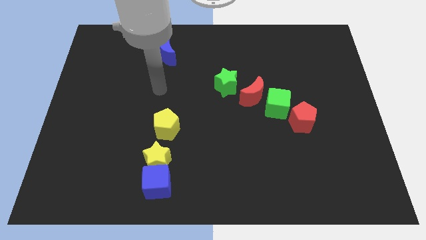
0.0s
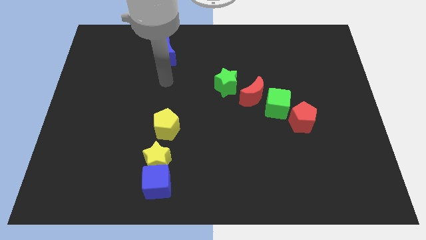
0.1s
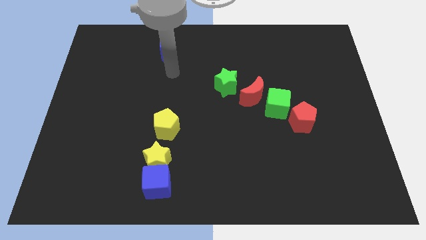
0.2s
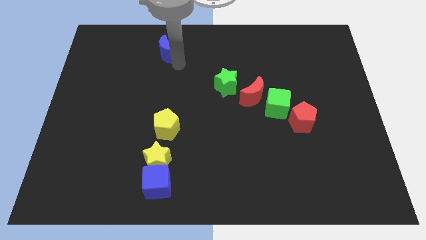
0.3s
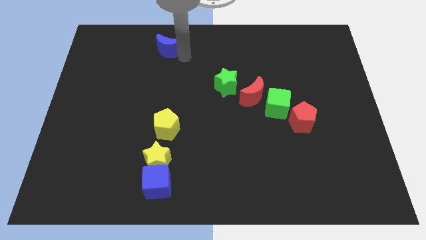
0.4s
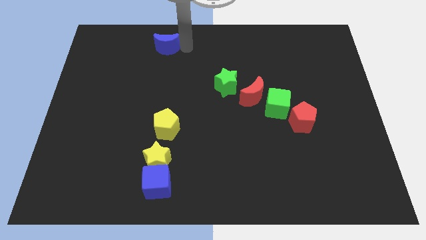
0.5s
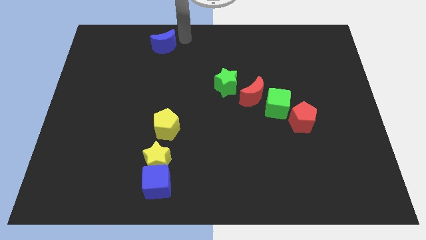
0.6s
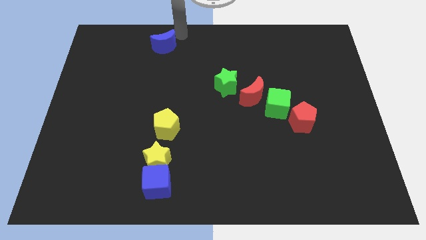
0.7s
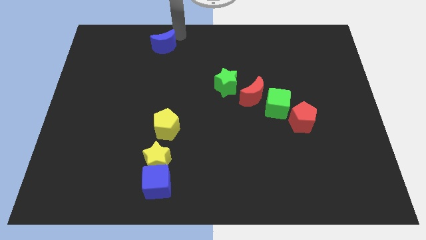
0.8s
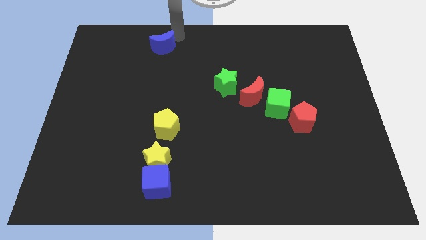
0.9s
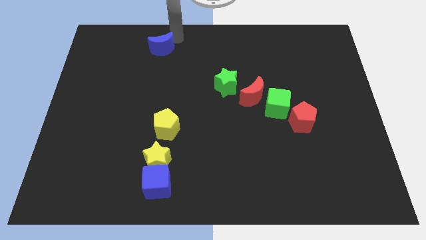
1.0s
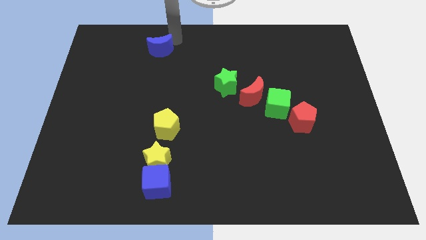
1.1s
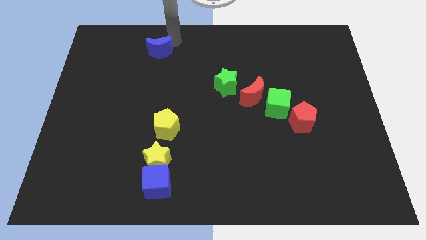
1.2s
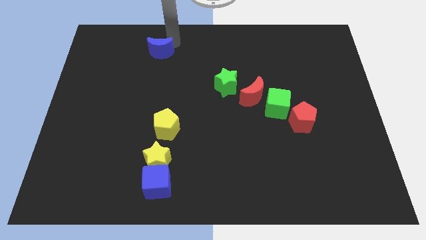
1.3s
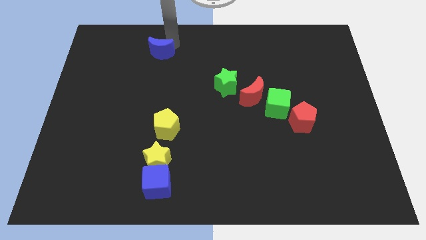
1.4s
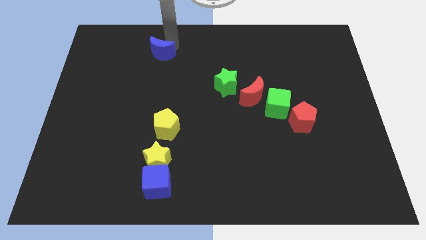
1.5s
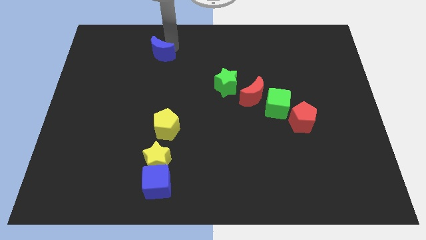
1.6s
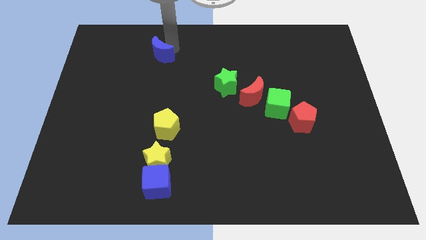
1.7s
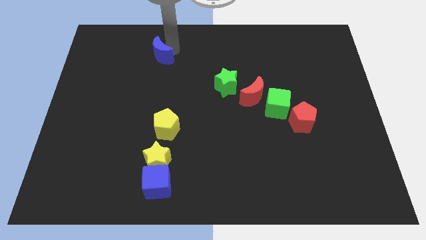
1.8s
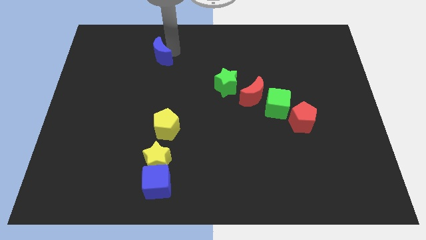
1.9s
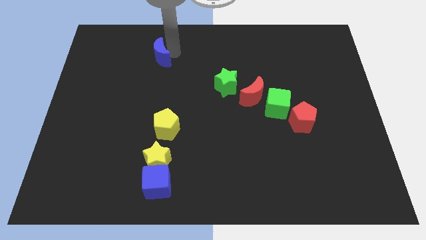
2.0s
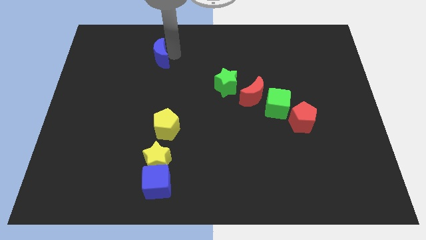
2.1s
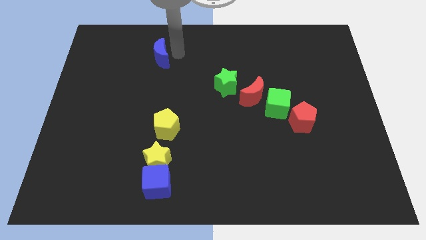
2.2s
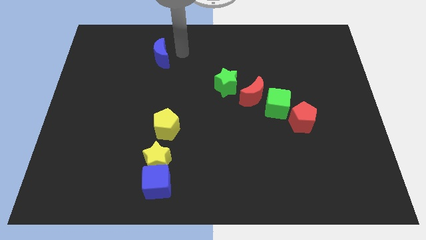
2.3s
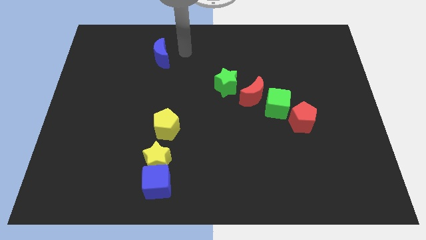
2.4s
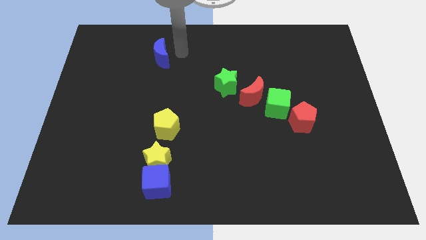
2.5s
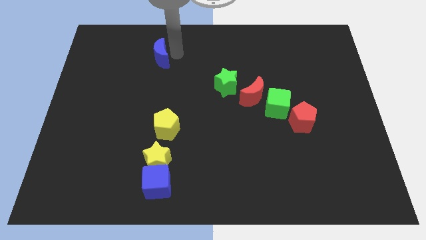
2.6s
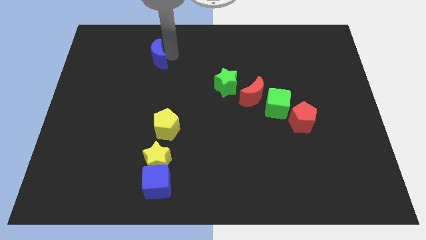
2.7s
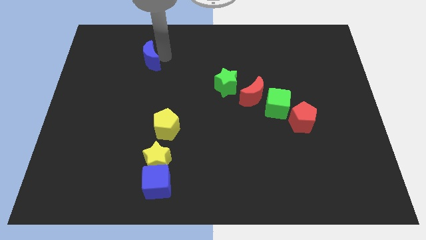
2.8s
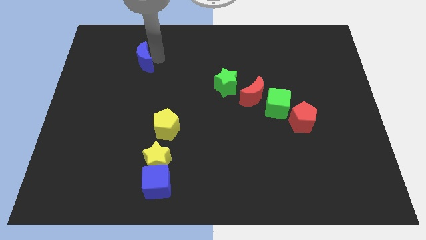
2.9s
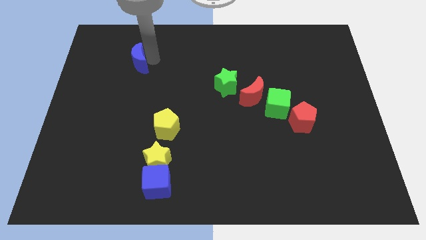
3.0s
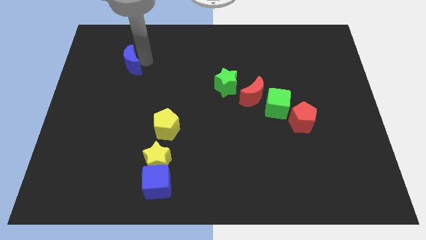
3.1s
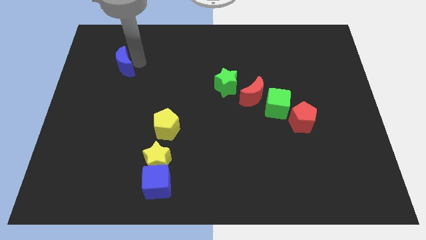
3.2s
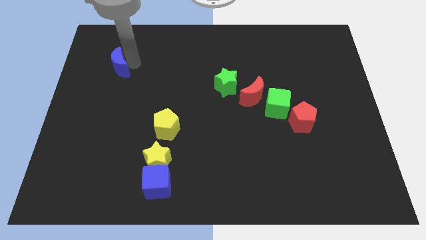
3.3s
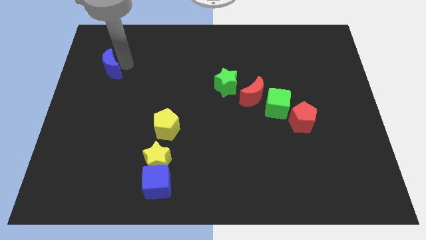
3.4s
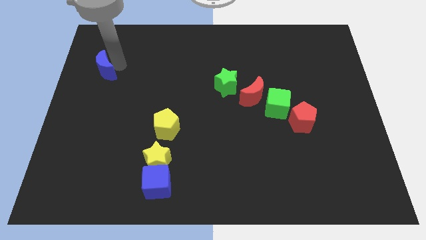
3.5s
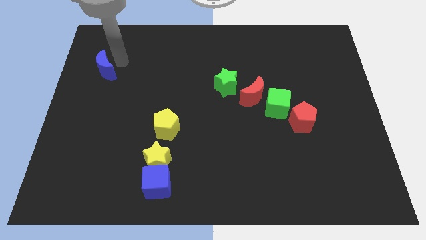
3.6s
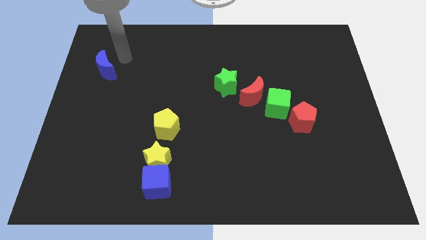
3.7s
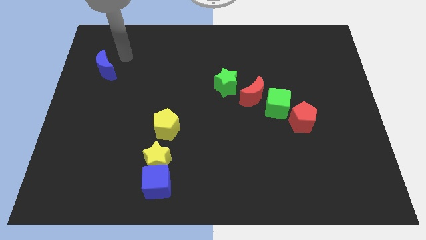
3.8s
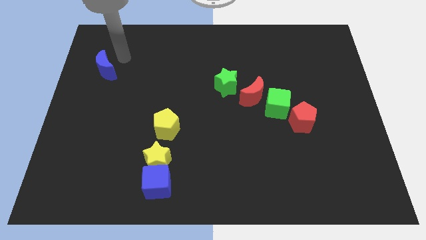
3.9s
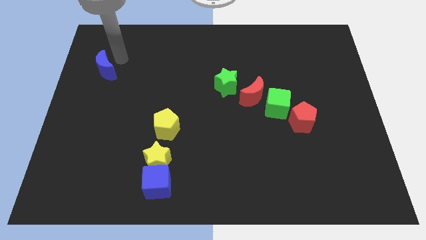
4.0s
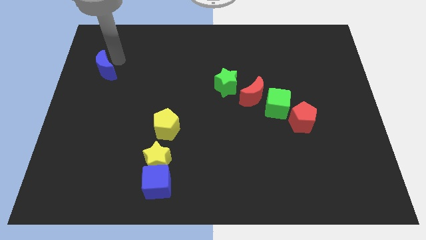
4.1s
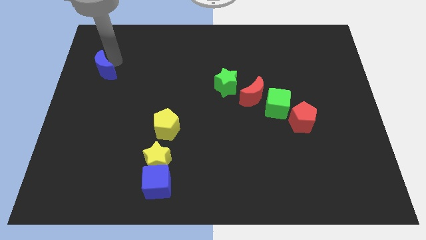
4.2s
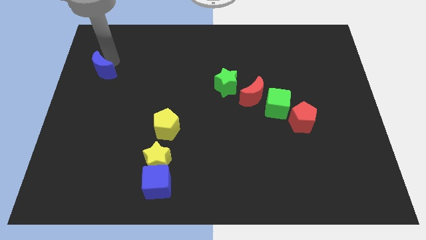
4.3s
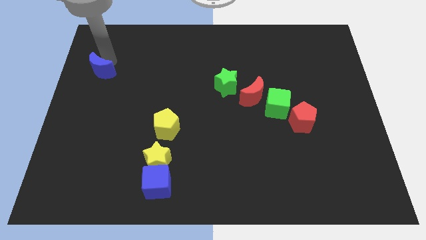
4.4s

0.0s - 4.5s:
put the blue moon to the left side of the board

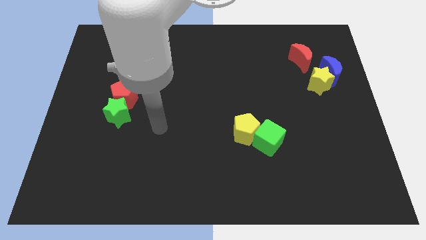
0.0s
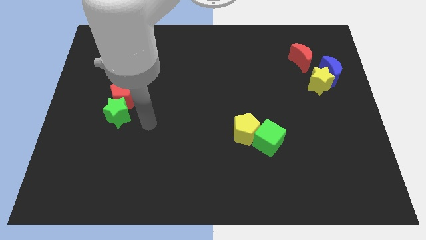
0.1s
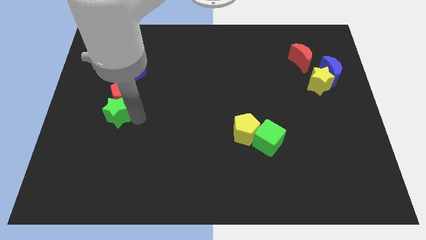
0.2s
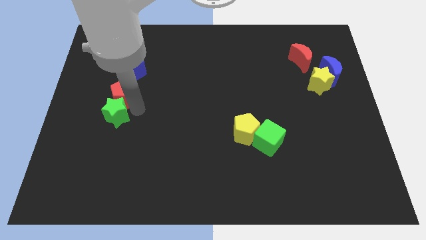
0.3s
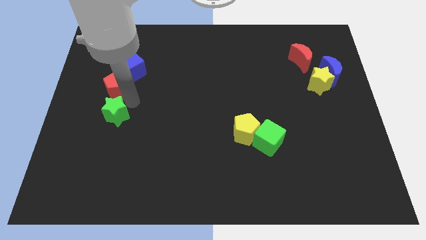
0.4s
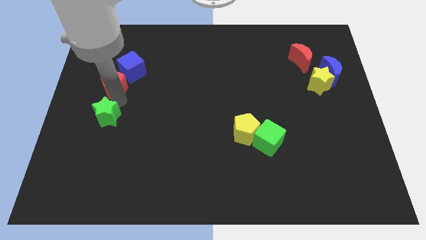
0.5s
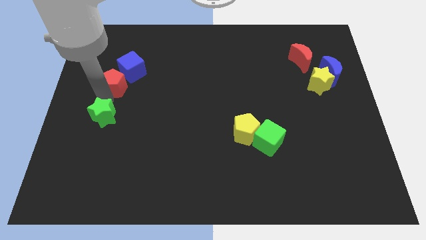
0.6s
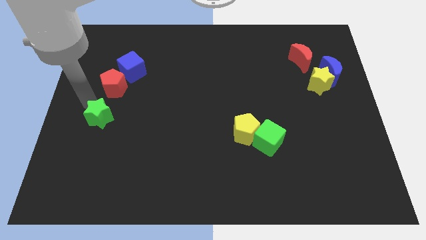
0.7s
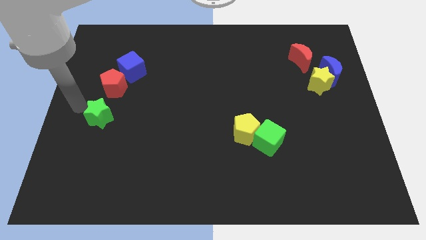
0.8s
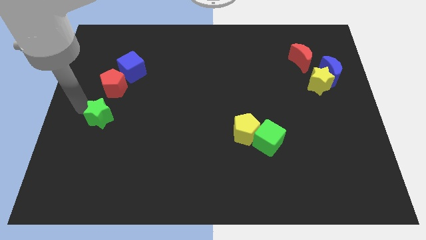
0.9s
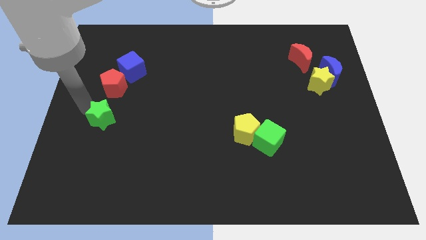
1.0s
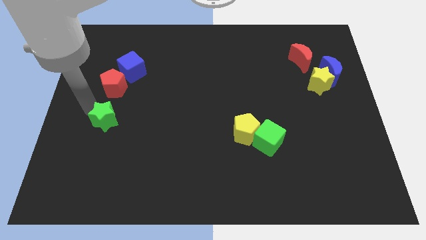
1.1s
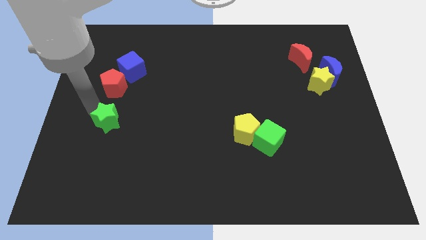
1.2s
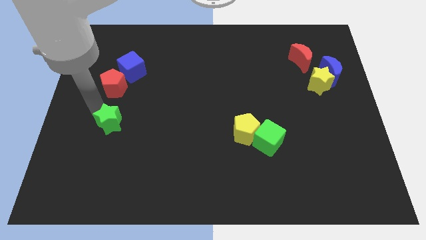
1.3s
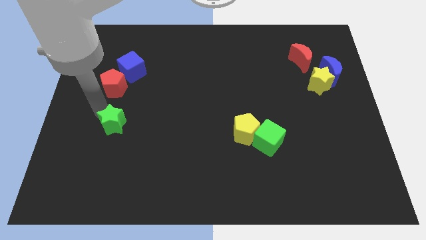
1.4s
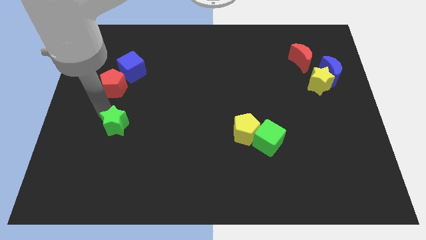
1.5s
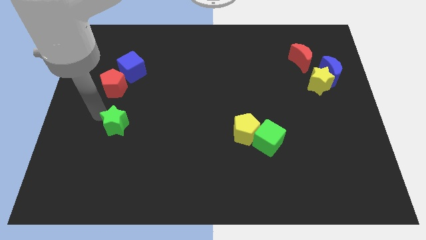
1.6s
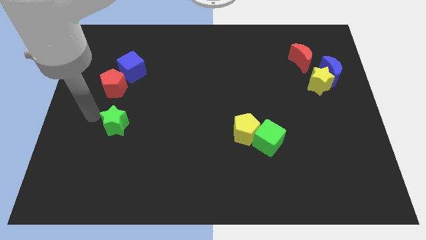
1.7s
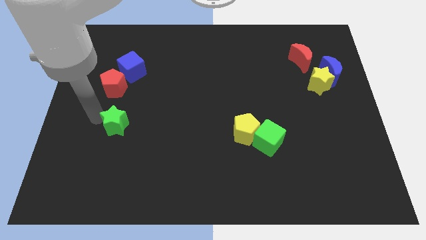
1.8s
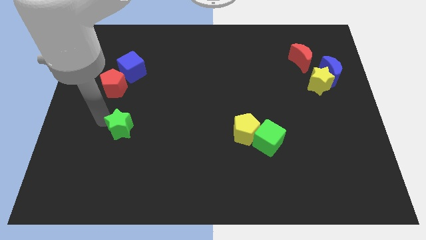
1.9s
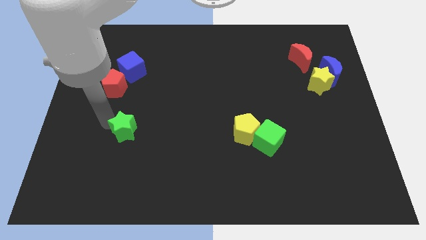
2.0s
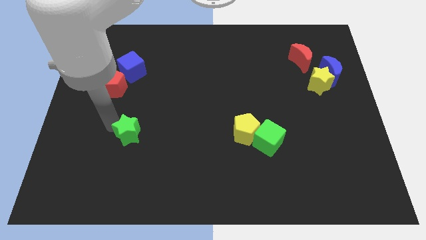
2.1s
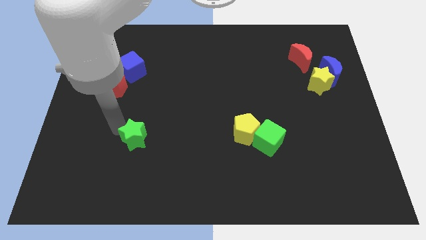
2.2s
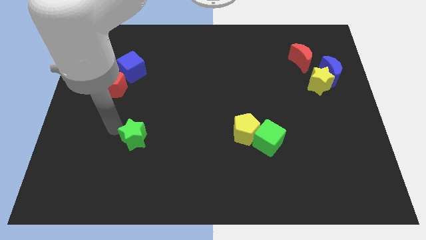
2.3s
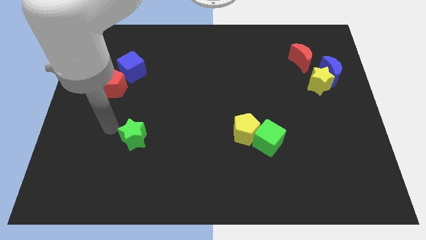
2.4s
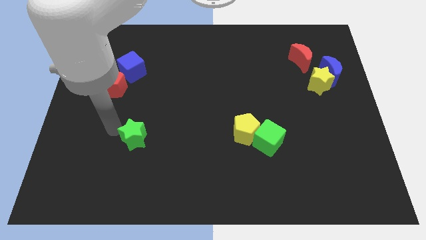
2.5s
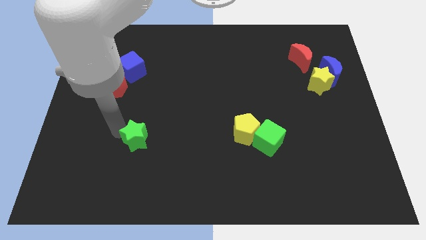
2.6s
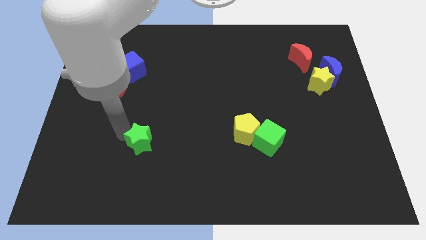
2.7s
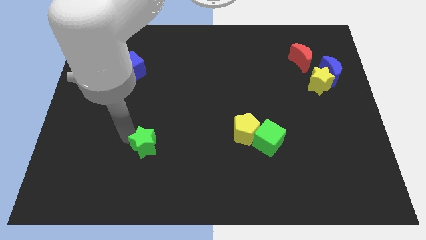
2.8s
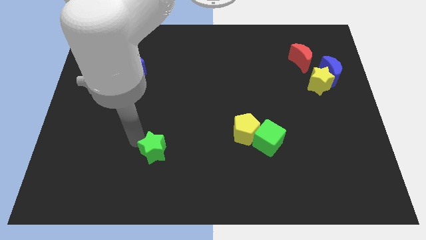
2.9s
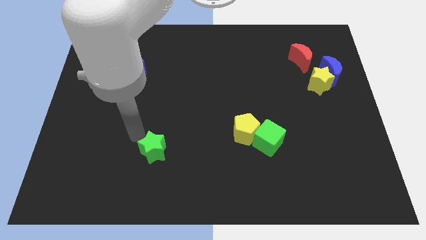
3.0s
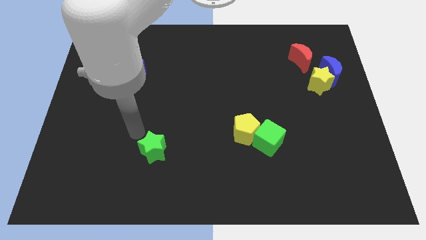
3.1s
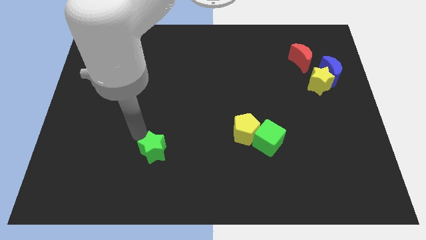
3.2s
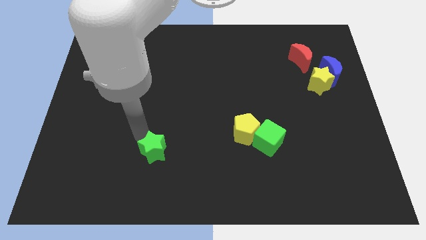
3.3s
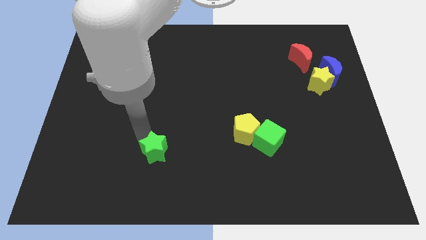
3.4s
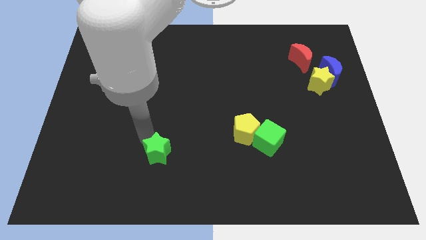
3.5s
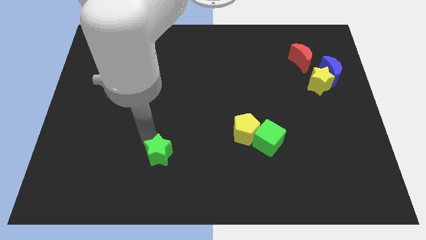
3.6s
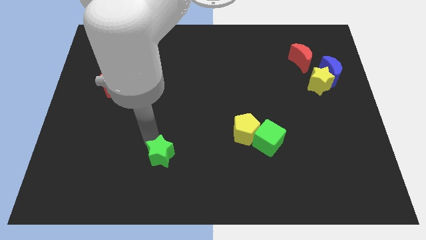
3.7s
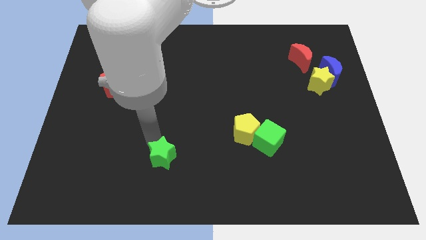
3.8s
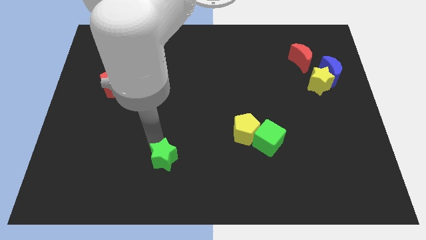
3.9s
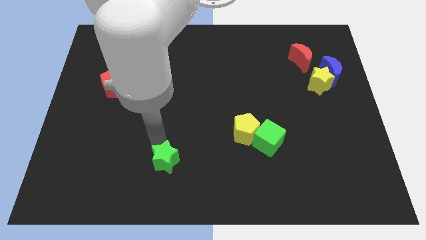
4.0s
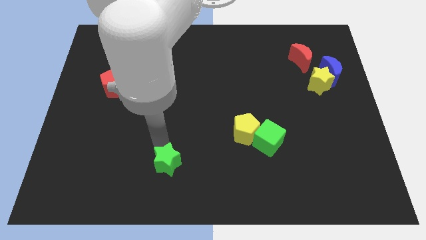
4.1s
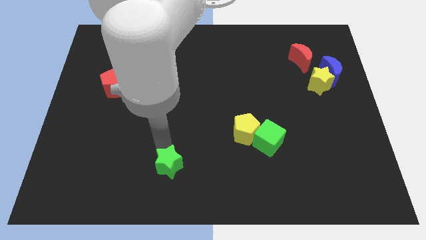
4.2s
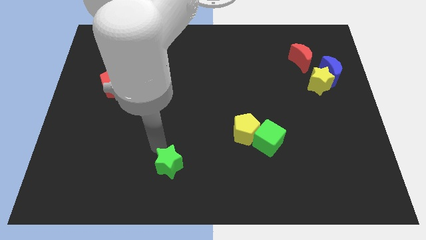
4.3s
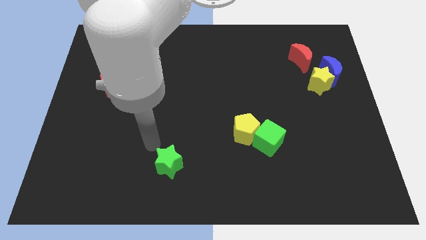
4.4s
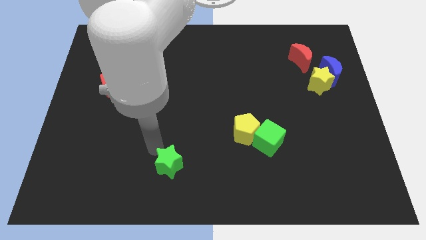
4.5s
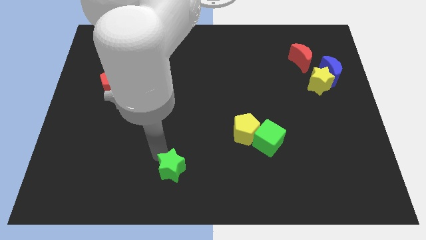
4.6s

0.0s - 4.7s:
put the green star to the bottom side
